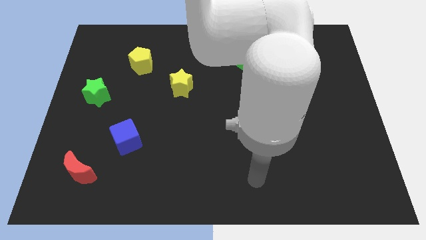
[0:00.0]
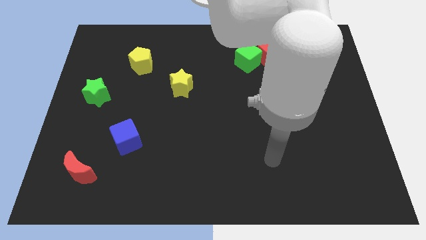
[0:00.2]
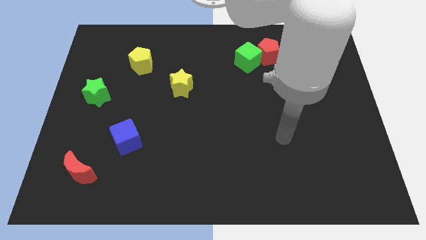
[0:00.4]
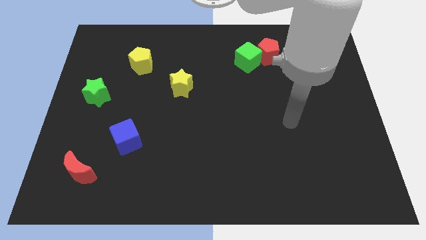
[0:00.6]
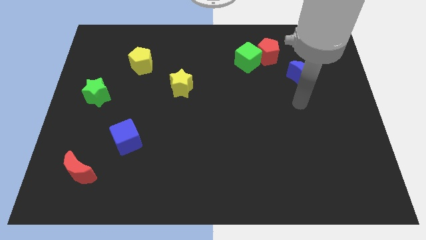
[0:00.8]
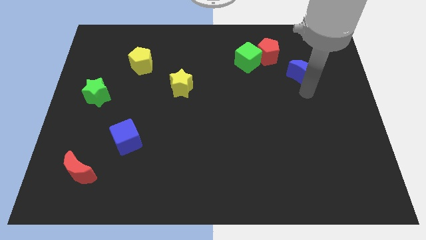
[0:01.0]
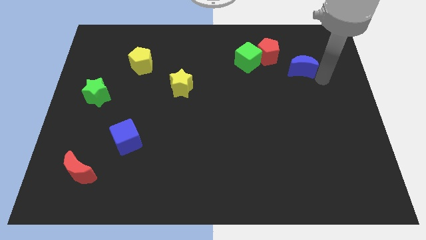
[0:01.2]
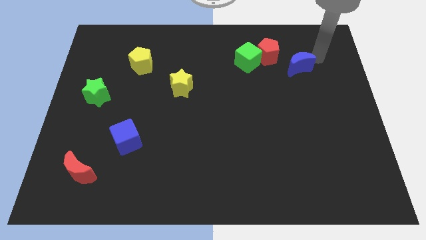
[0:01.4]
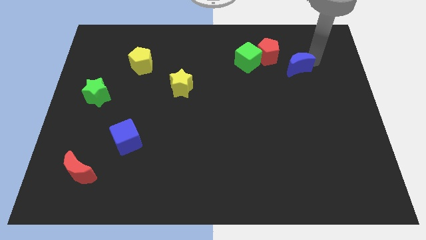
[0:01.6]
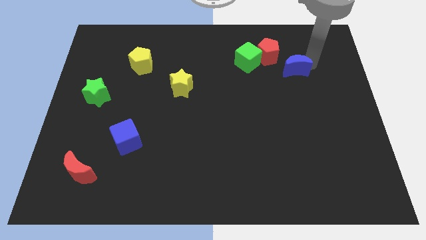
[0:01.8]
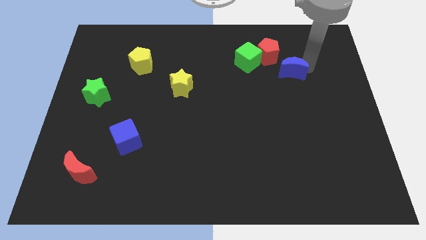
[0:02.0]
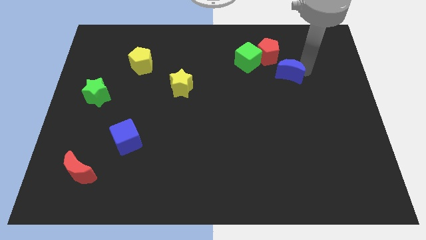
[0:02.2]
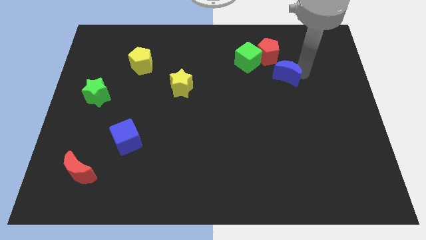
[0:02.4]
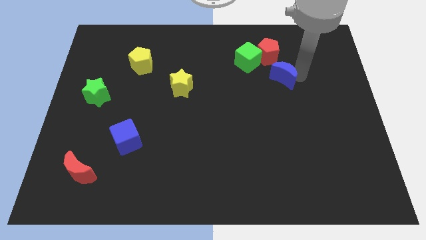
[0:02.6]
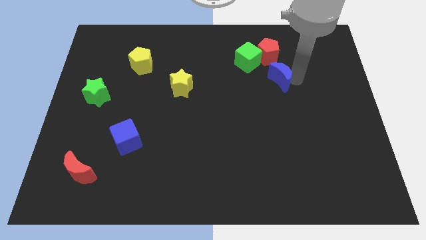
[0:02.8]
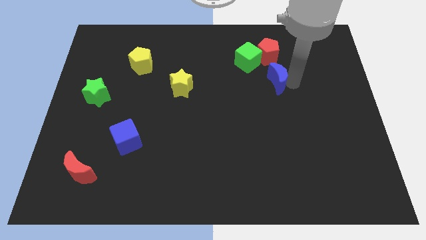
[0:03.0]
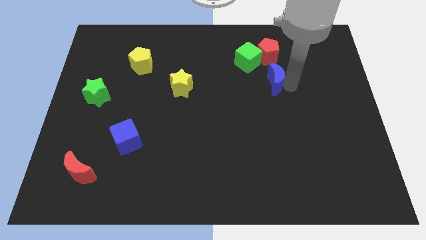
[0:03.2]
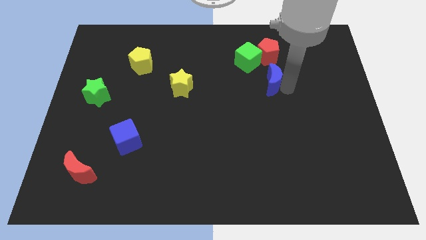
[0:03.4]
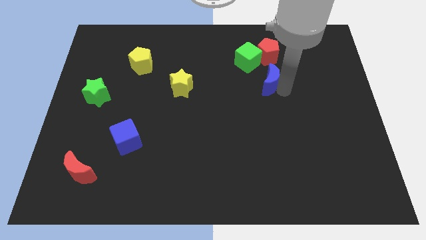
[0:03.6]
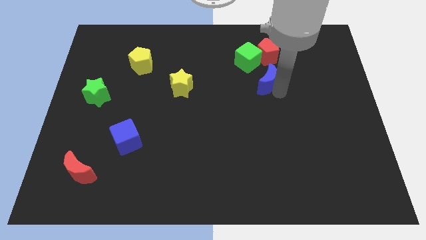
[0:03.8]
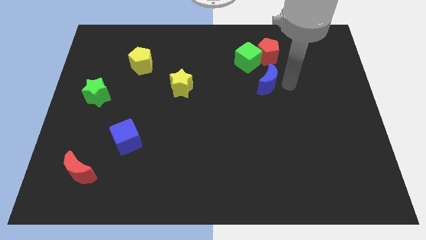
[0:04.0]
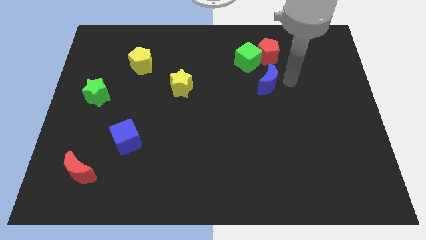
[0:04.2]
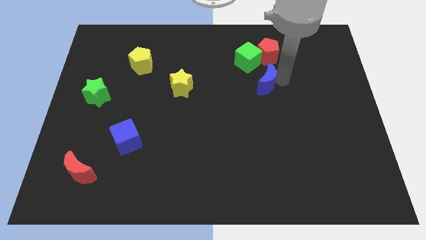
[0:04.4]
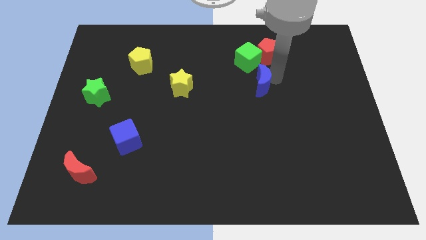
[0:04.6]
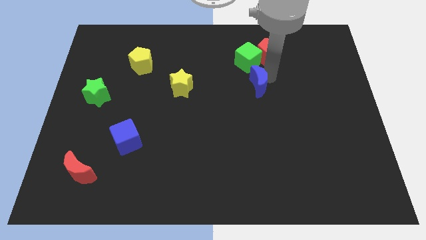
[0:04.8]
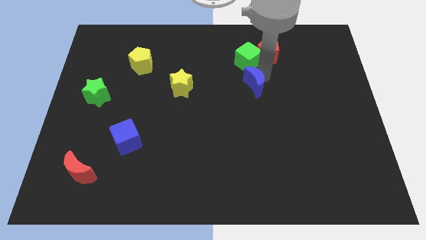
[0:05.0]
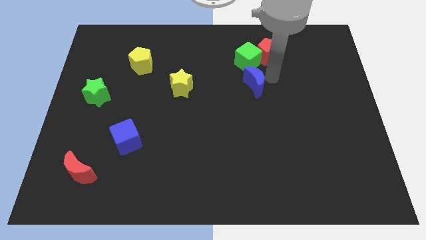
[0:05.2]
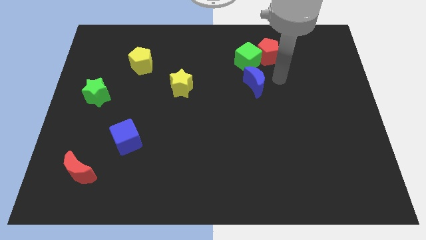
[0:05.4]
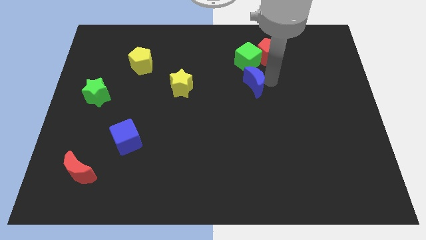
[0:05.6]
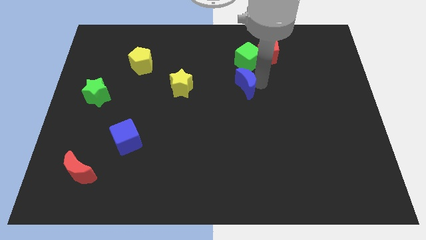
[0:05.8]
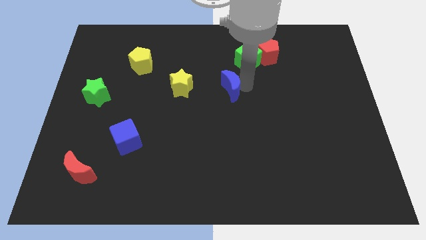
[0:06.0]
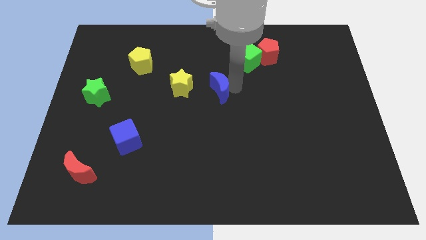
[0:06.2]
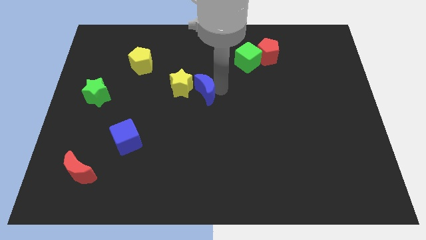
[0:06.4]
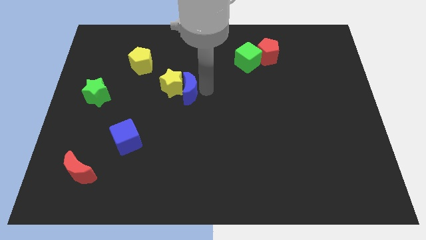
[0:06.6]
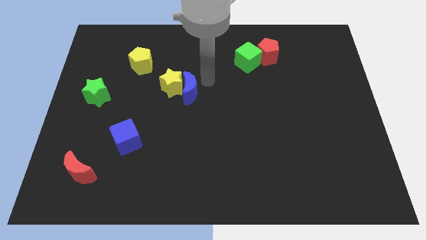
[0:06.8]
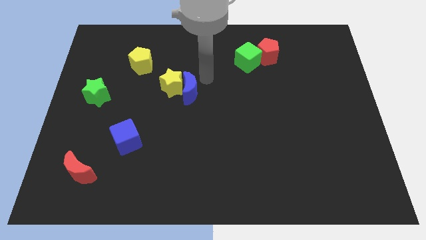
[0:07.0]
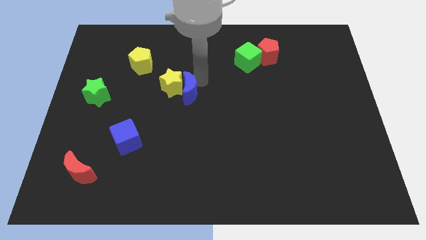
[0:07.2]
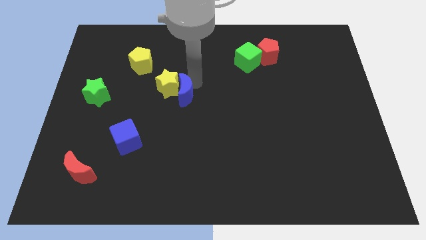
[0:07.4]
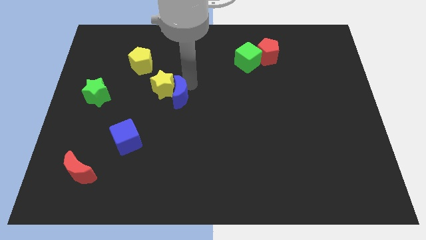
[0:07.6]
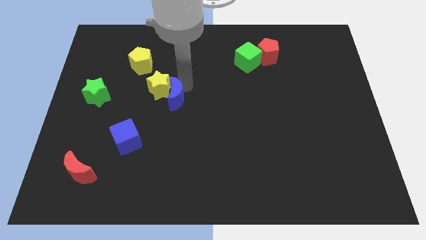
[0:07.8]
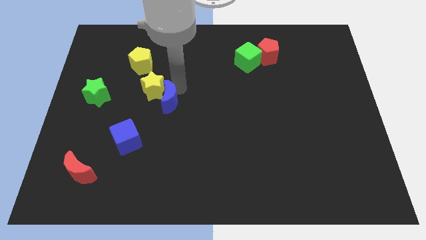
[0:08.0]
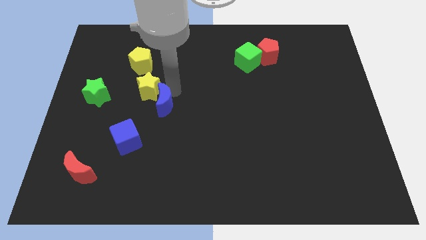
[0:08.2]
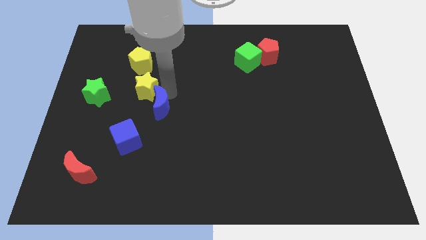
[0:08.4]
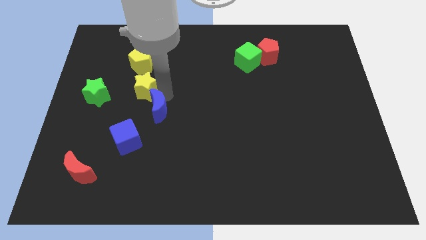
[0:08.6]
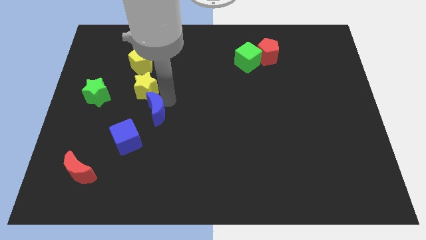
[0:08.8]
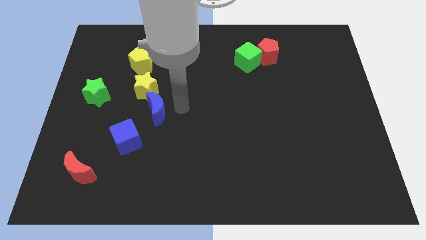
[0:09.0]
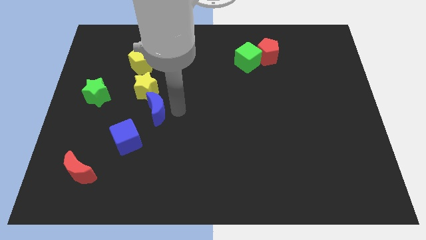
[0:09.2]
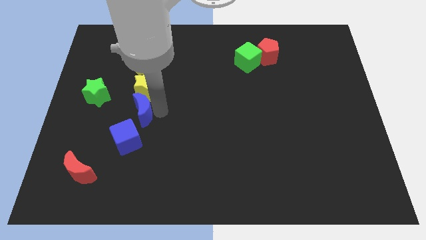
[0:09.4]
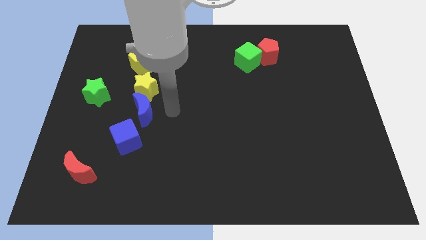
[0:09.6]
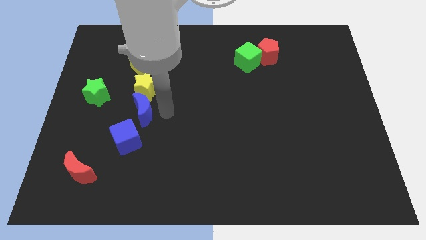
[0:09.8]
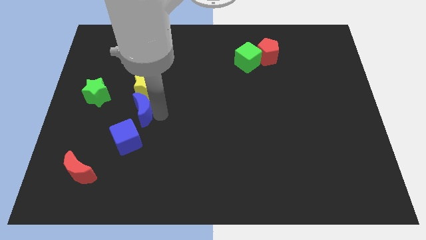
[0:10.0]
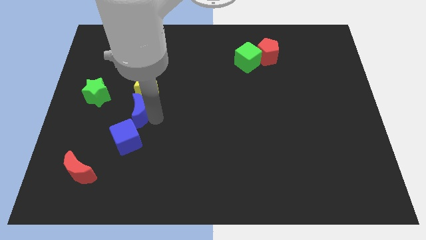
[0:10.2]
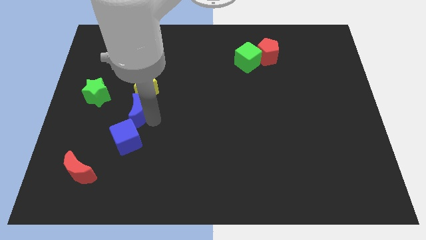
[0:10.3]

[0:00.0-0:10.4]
move the blue moon to the bottom right side of the green star
